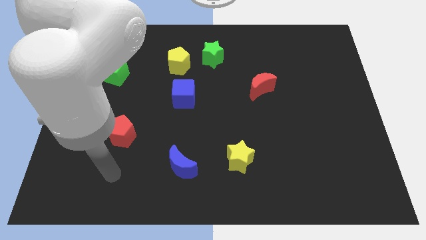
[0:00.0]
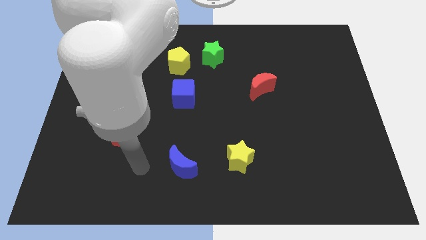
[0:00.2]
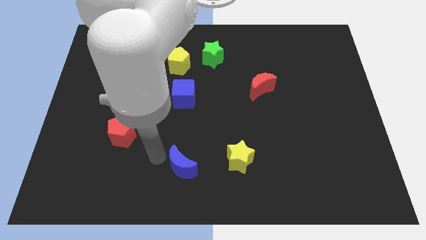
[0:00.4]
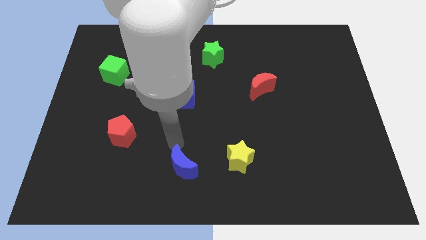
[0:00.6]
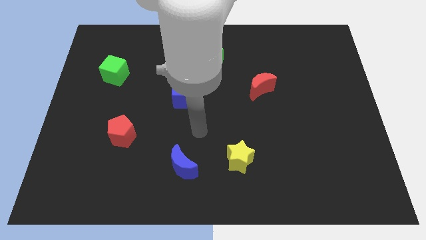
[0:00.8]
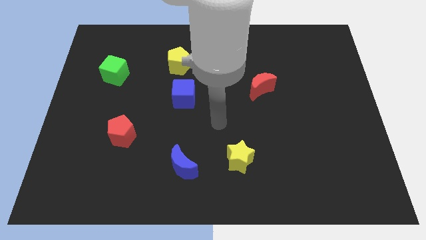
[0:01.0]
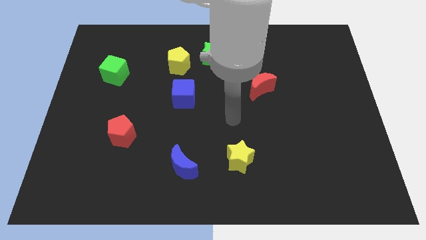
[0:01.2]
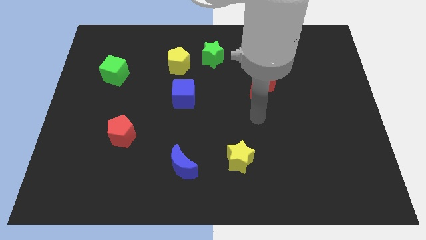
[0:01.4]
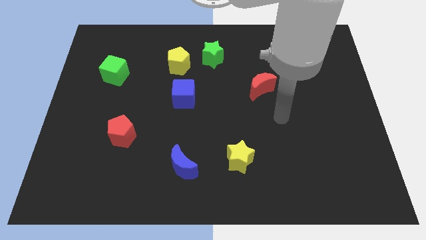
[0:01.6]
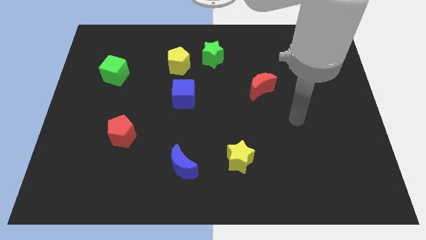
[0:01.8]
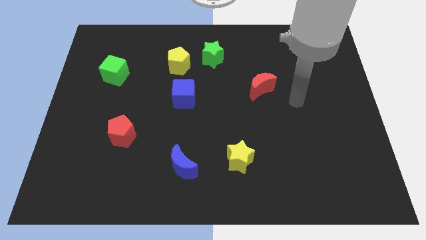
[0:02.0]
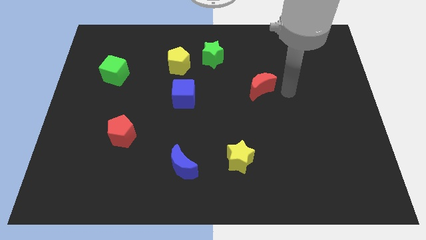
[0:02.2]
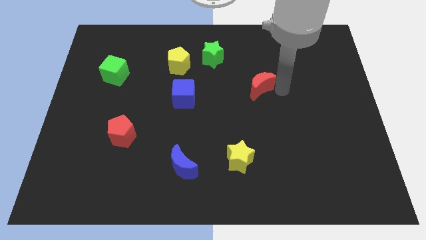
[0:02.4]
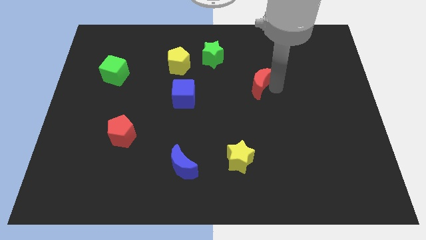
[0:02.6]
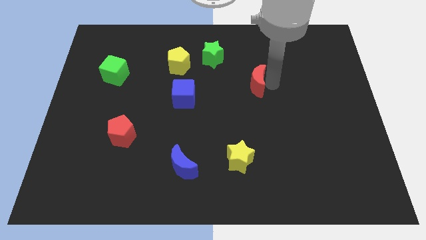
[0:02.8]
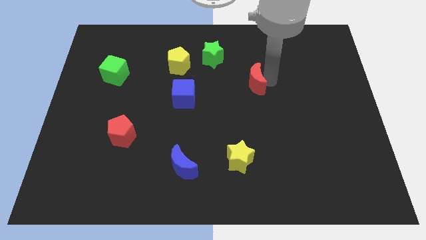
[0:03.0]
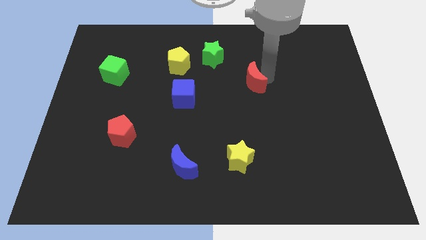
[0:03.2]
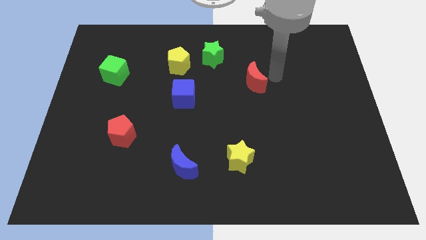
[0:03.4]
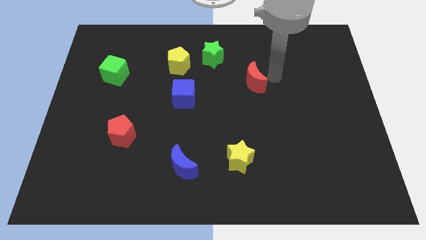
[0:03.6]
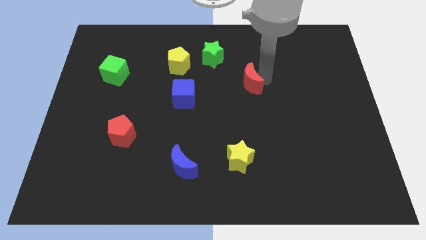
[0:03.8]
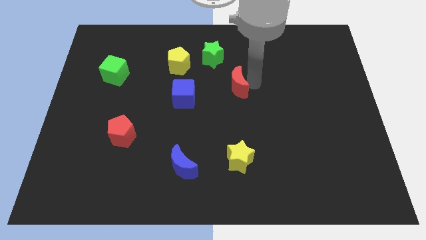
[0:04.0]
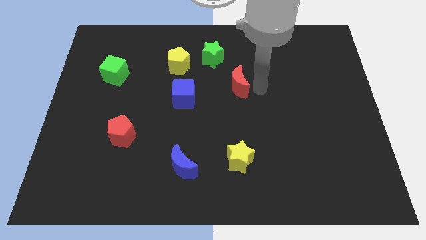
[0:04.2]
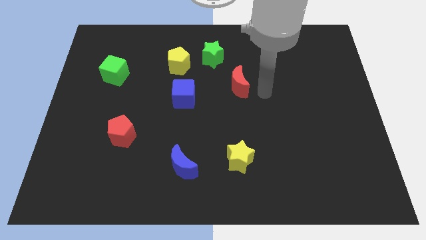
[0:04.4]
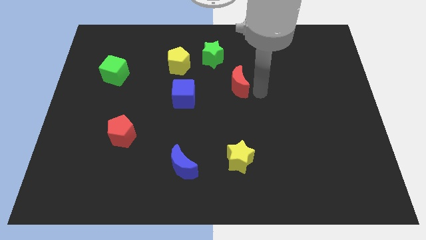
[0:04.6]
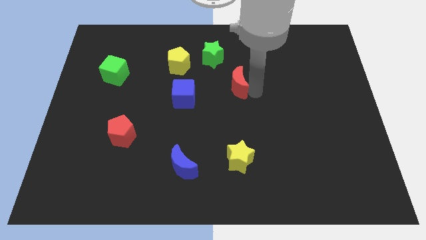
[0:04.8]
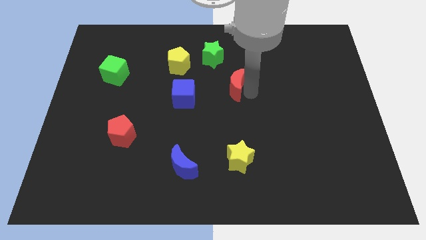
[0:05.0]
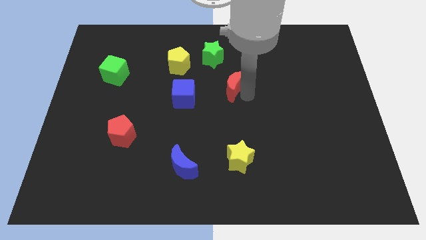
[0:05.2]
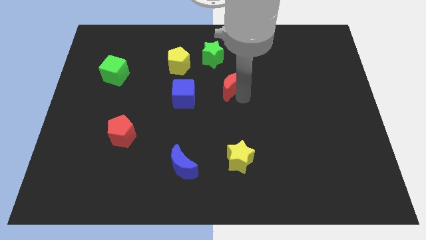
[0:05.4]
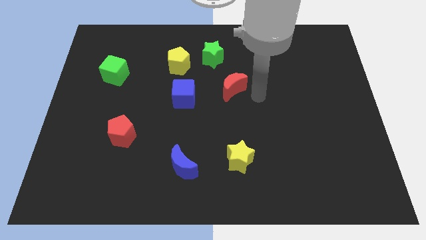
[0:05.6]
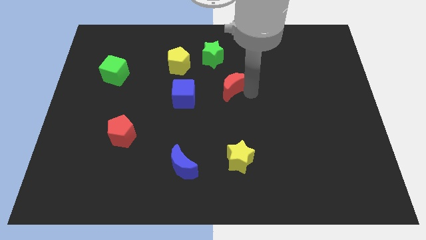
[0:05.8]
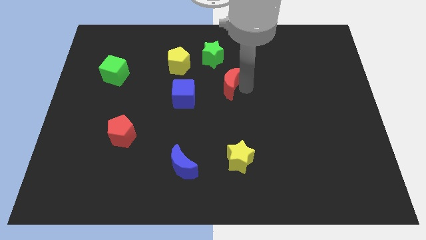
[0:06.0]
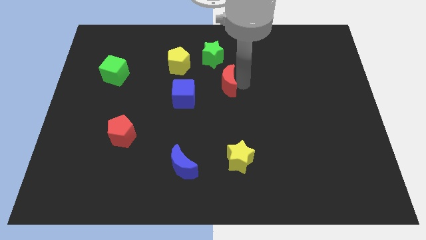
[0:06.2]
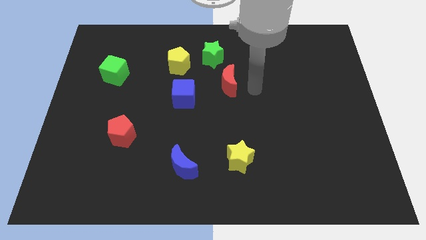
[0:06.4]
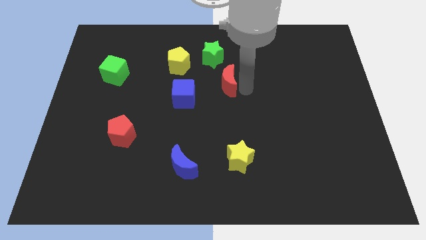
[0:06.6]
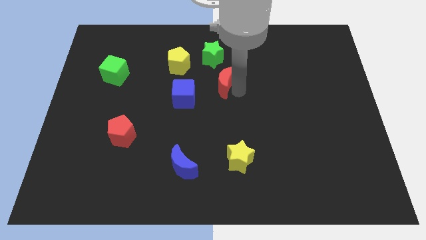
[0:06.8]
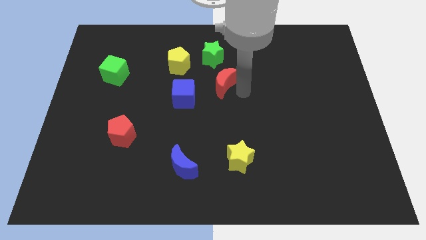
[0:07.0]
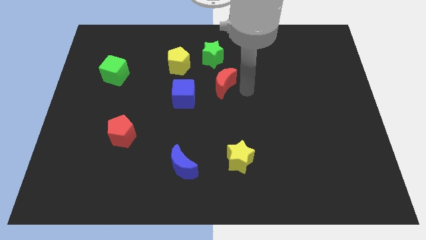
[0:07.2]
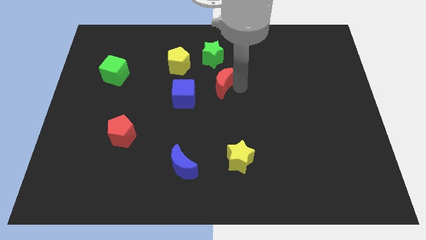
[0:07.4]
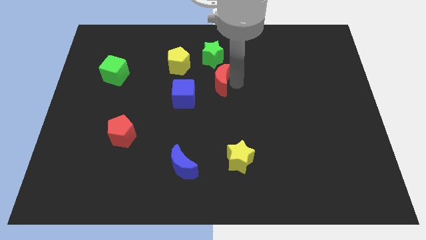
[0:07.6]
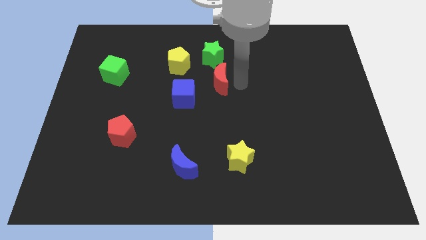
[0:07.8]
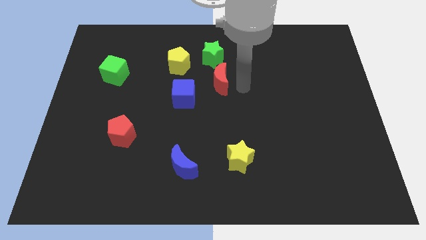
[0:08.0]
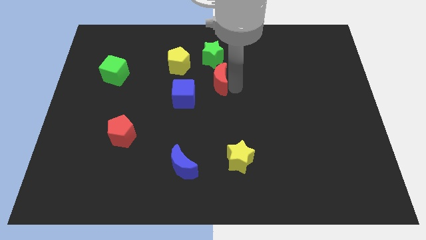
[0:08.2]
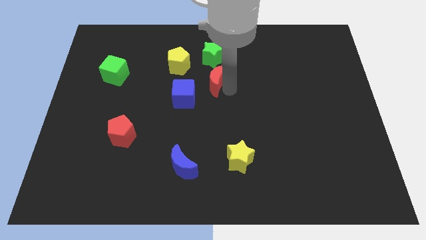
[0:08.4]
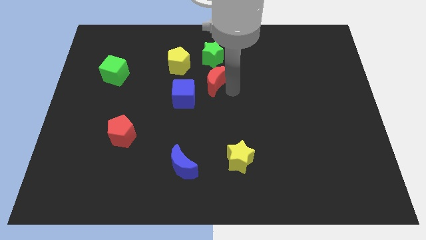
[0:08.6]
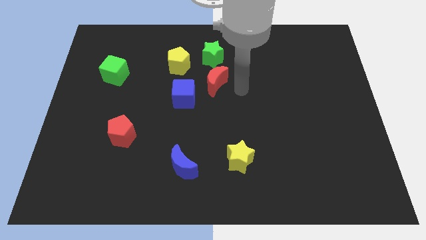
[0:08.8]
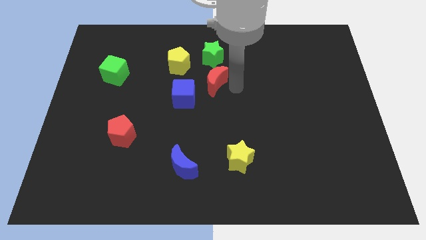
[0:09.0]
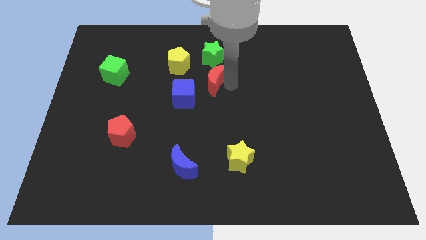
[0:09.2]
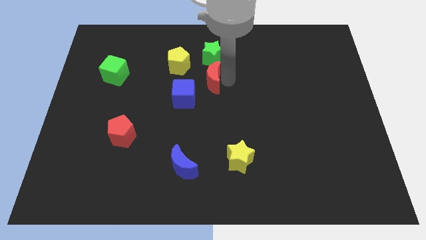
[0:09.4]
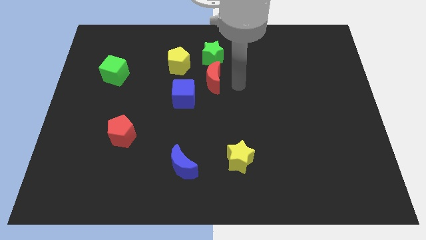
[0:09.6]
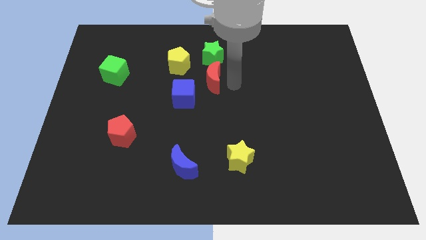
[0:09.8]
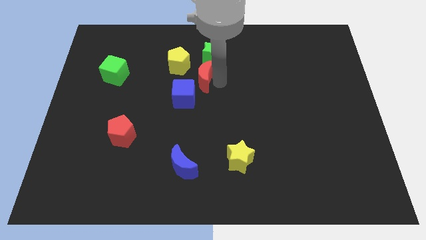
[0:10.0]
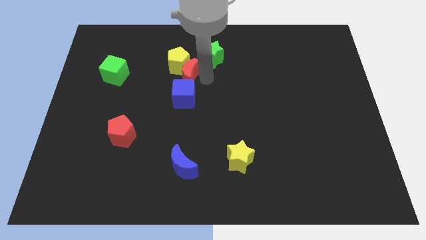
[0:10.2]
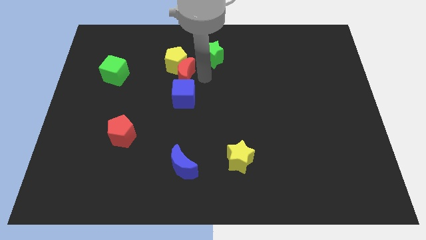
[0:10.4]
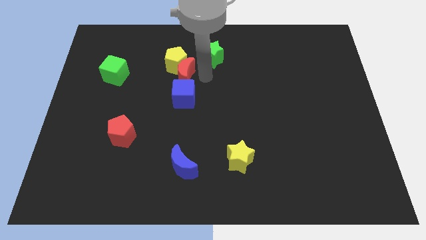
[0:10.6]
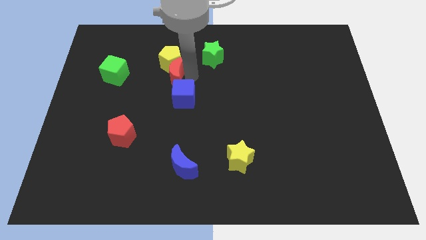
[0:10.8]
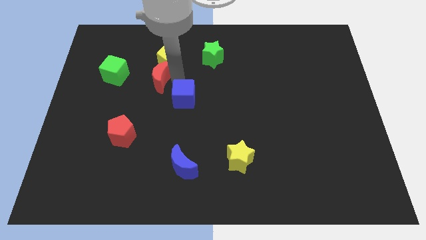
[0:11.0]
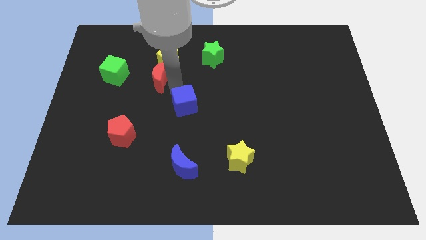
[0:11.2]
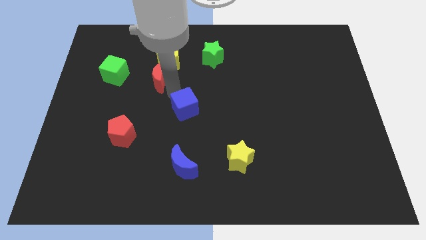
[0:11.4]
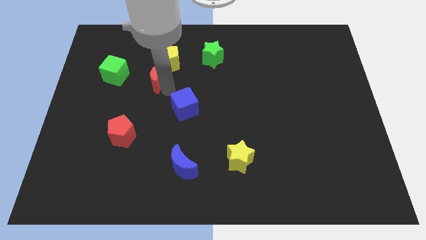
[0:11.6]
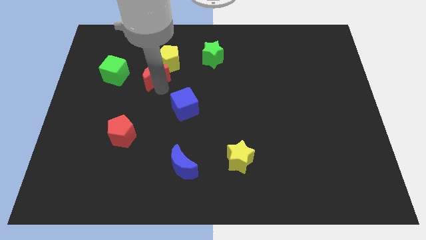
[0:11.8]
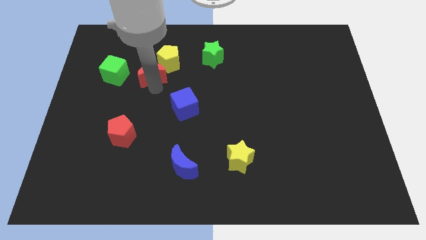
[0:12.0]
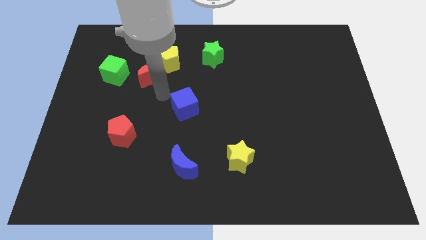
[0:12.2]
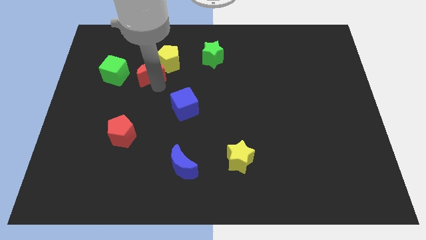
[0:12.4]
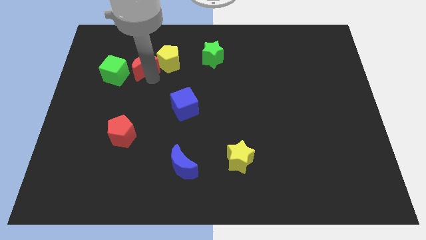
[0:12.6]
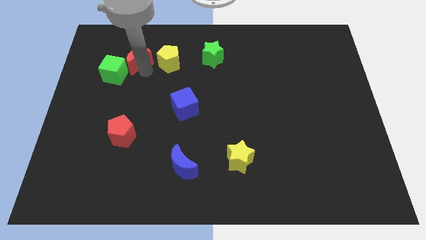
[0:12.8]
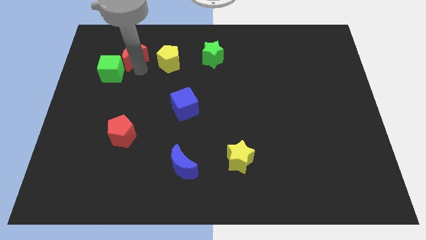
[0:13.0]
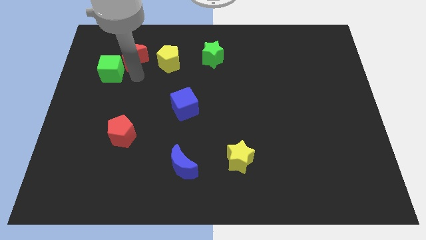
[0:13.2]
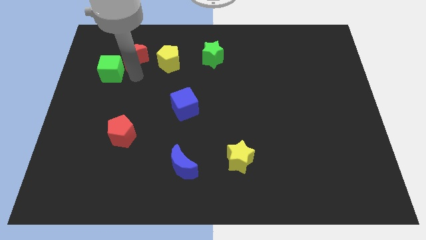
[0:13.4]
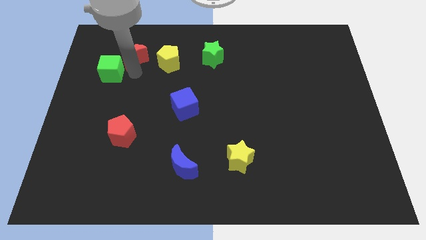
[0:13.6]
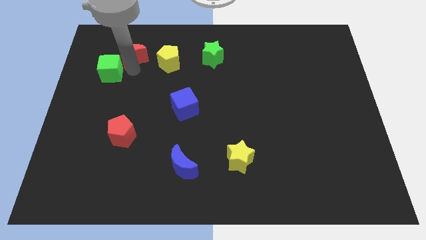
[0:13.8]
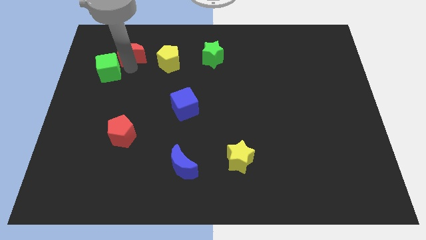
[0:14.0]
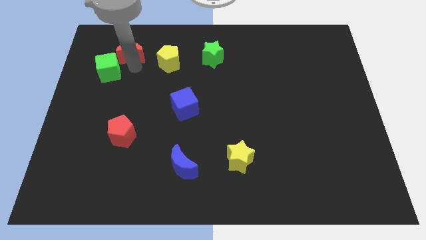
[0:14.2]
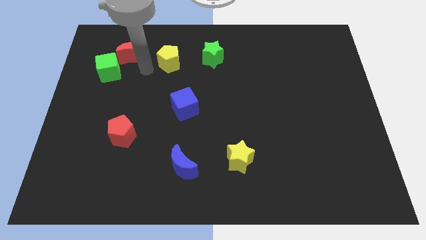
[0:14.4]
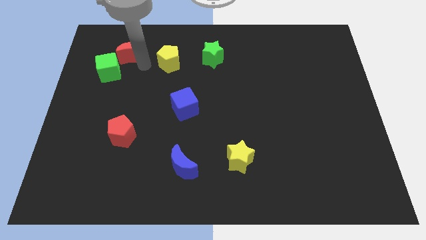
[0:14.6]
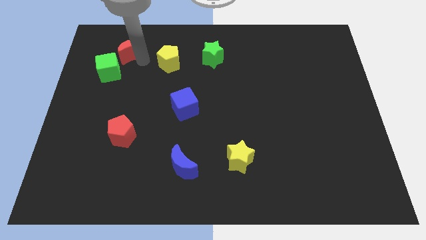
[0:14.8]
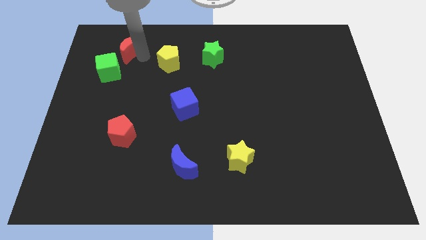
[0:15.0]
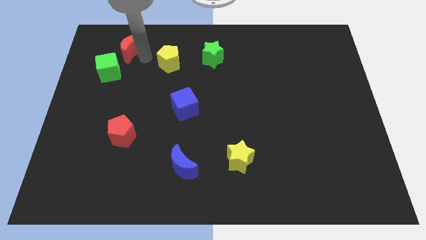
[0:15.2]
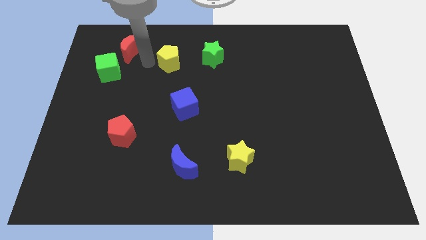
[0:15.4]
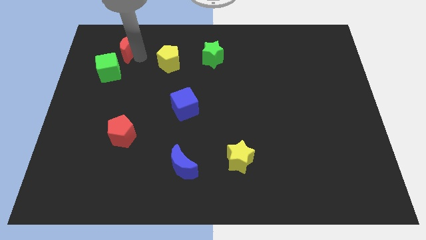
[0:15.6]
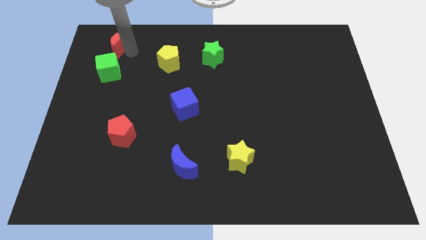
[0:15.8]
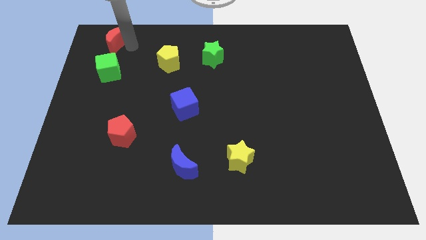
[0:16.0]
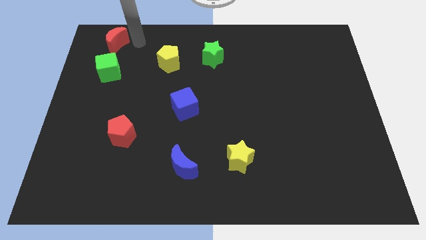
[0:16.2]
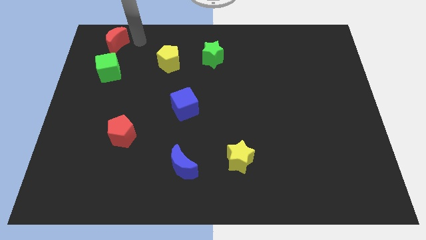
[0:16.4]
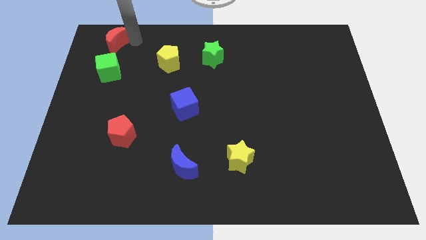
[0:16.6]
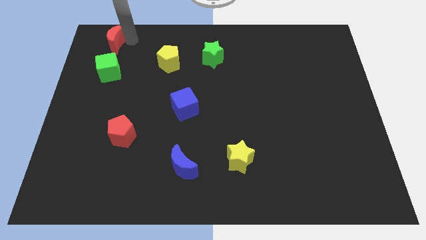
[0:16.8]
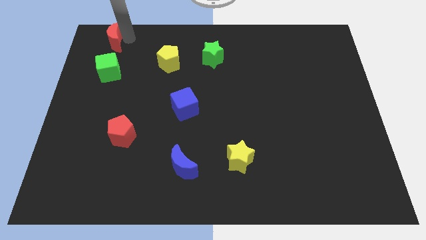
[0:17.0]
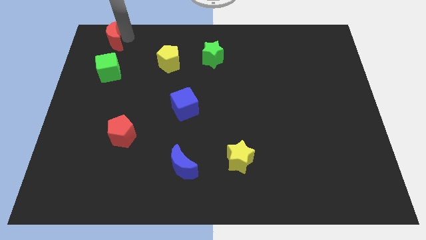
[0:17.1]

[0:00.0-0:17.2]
push the red moon to the upper left corner
